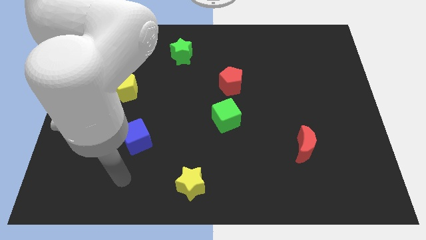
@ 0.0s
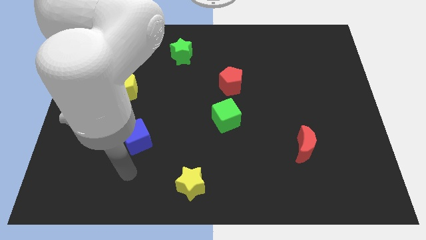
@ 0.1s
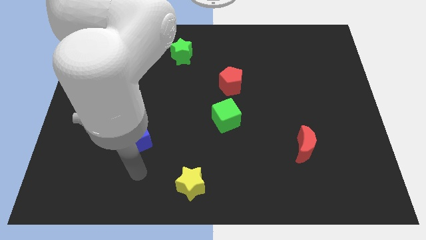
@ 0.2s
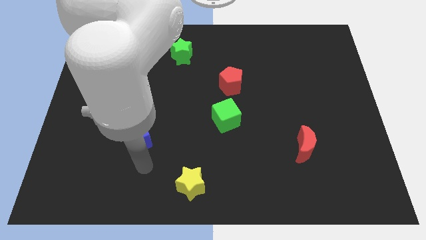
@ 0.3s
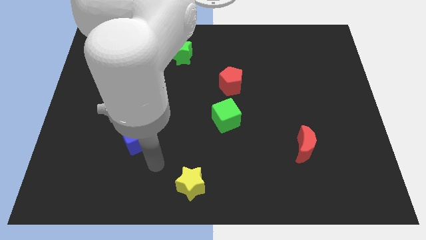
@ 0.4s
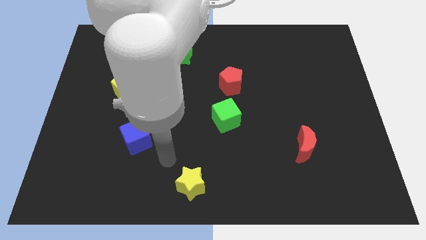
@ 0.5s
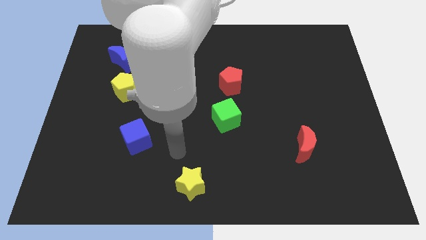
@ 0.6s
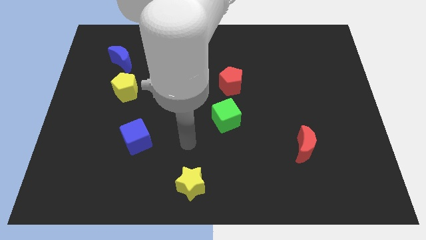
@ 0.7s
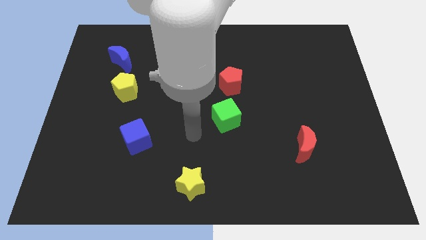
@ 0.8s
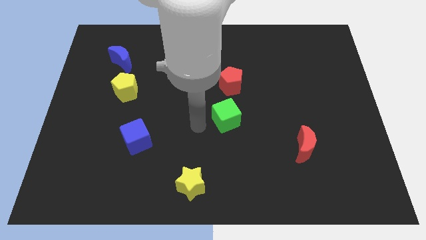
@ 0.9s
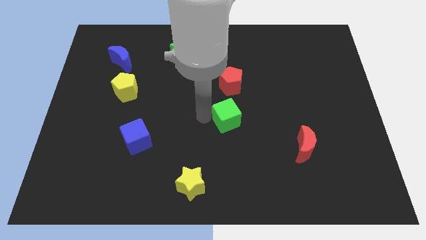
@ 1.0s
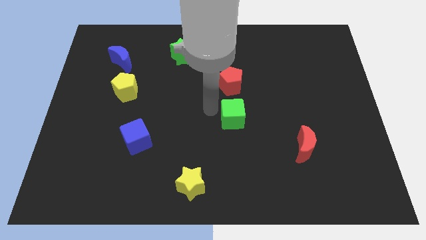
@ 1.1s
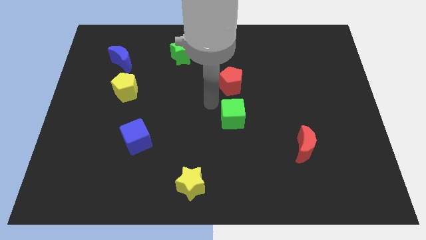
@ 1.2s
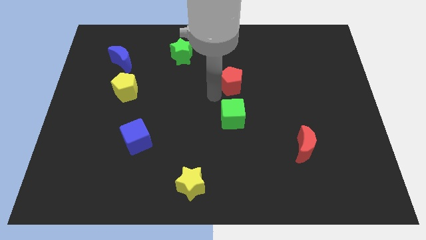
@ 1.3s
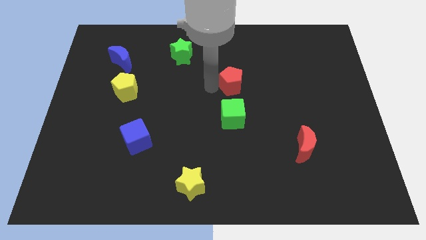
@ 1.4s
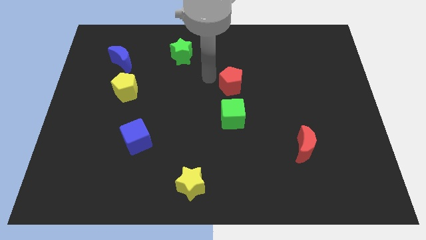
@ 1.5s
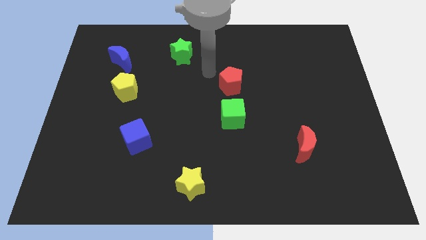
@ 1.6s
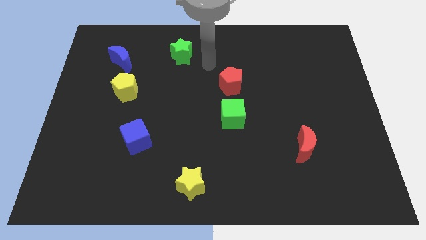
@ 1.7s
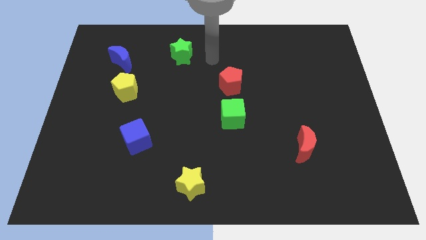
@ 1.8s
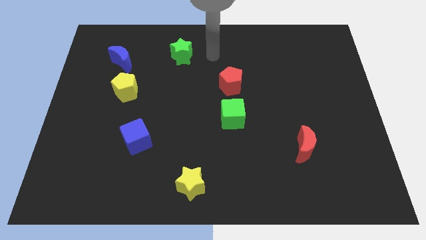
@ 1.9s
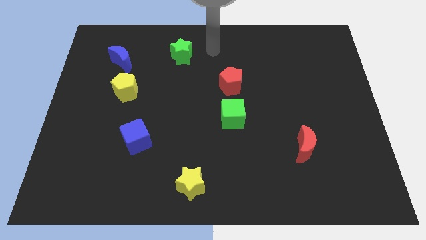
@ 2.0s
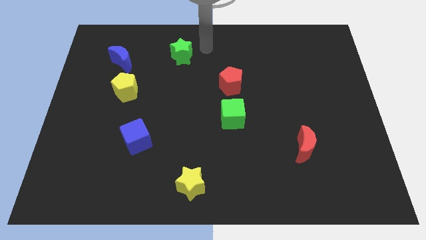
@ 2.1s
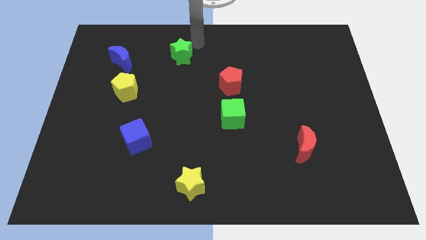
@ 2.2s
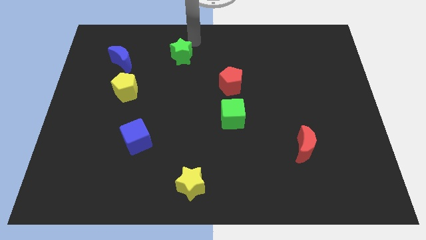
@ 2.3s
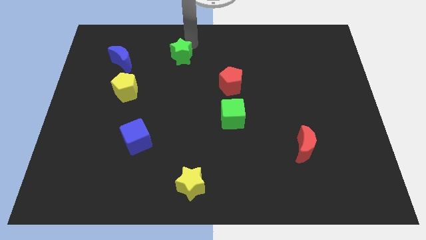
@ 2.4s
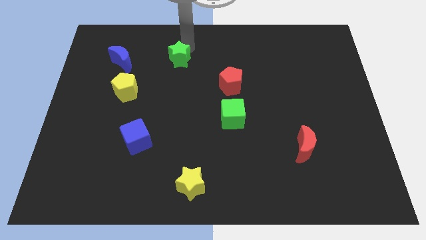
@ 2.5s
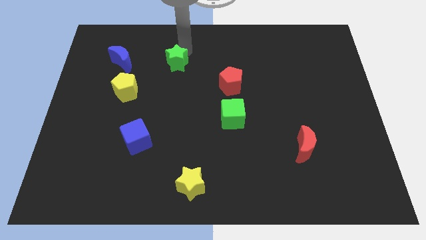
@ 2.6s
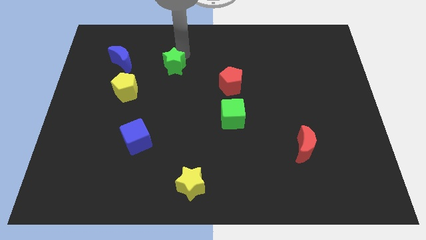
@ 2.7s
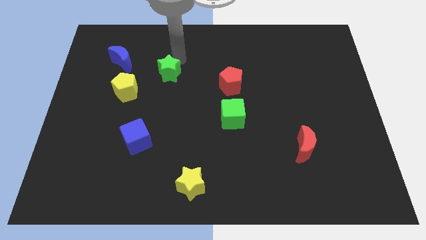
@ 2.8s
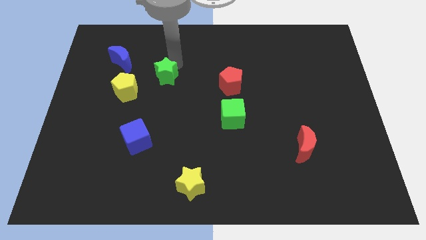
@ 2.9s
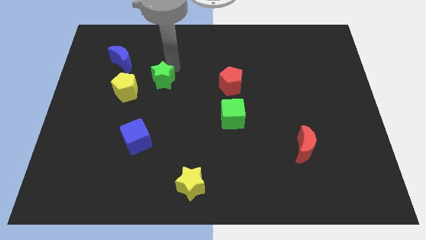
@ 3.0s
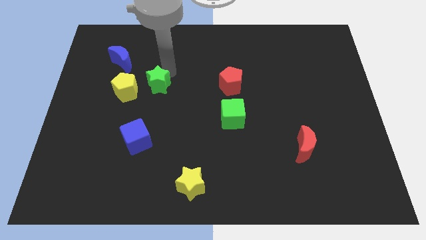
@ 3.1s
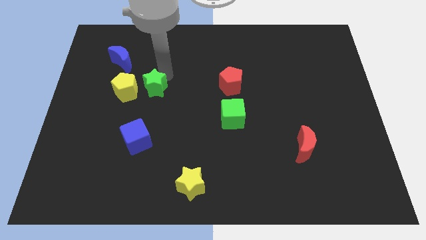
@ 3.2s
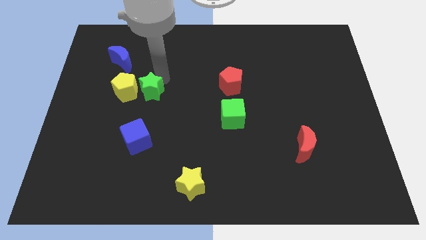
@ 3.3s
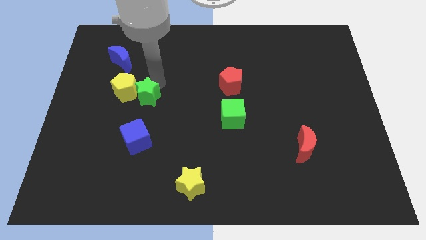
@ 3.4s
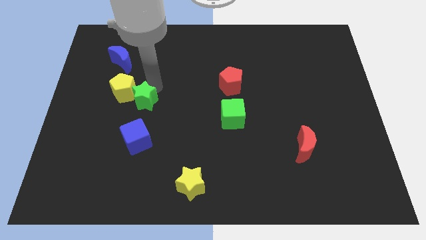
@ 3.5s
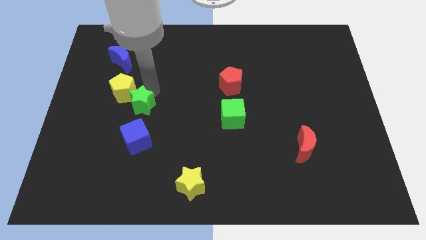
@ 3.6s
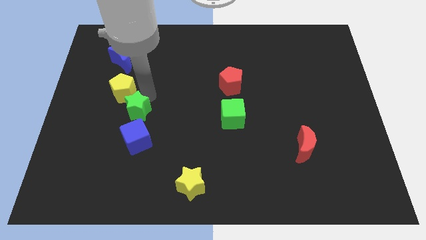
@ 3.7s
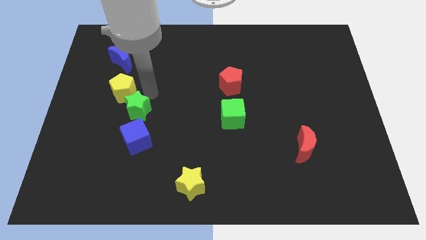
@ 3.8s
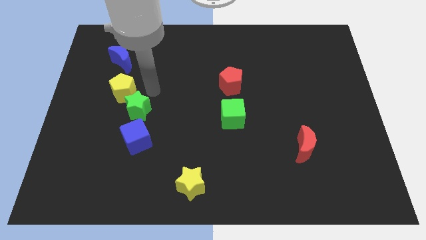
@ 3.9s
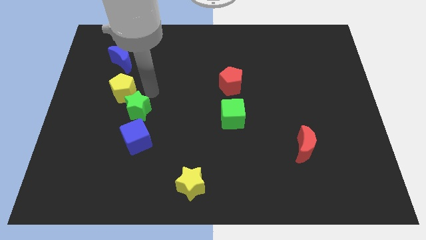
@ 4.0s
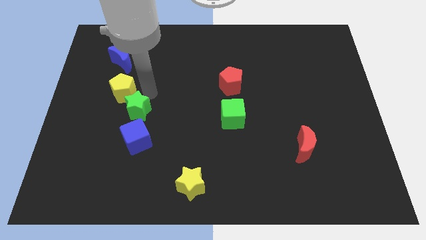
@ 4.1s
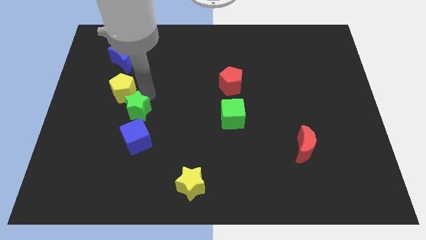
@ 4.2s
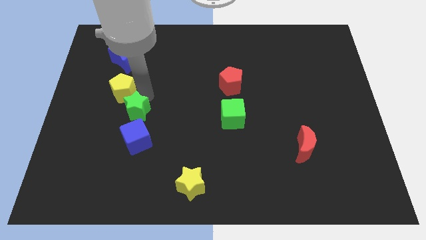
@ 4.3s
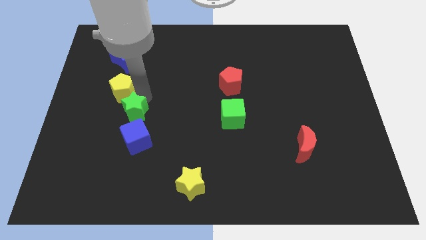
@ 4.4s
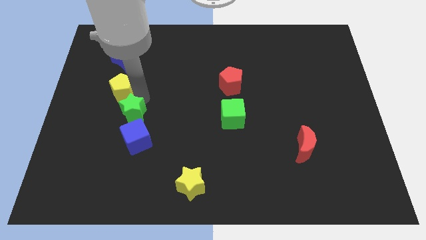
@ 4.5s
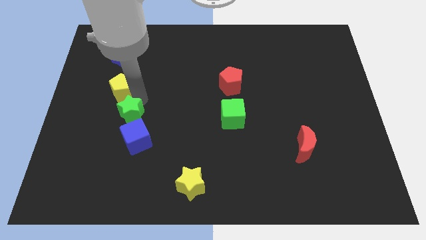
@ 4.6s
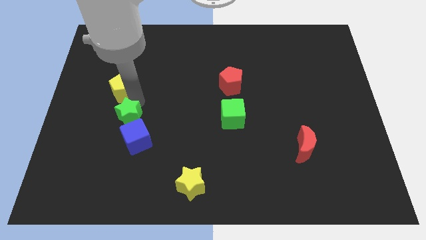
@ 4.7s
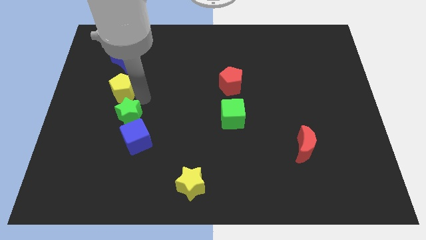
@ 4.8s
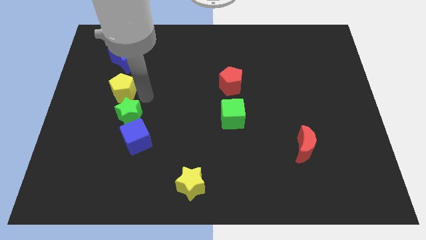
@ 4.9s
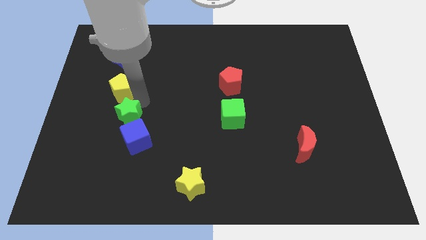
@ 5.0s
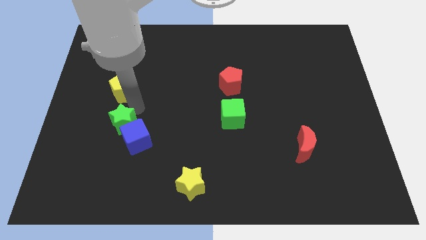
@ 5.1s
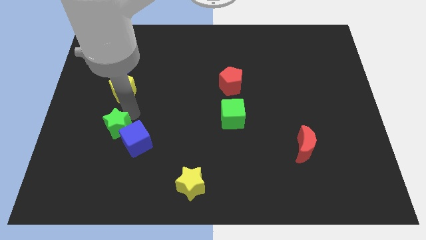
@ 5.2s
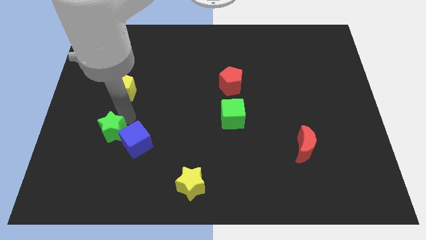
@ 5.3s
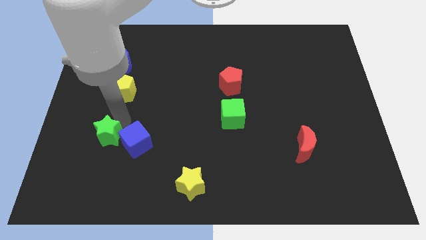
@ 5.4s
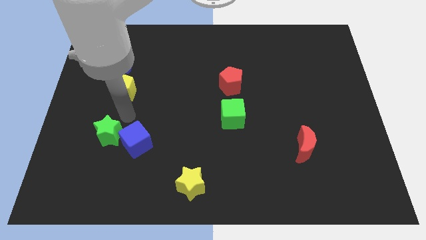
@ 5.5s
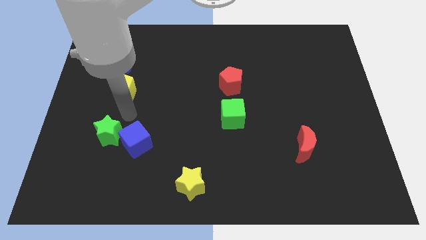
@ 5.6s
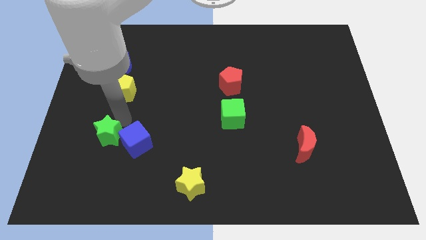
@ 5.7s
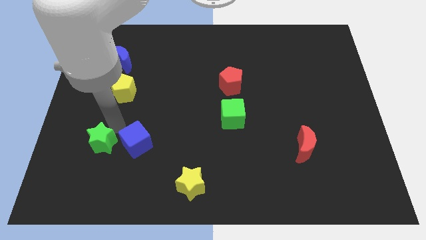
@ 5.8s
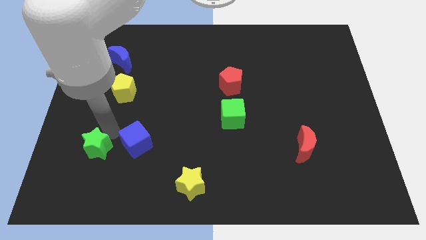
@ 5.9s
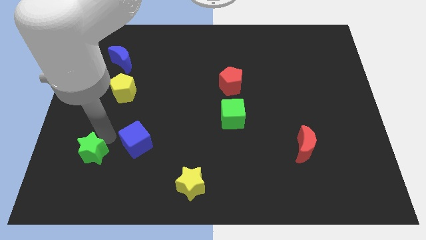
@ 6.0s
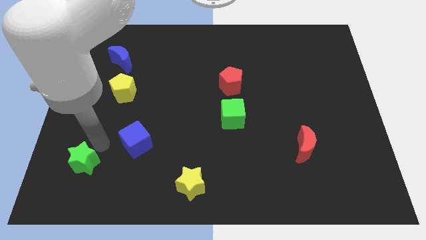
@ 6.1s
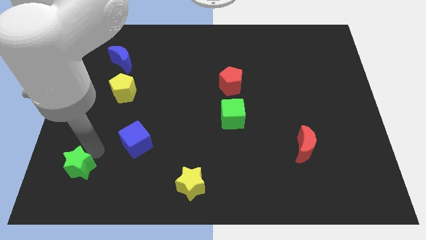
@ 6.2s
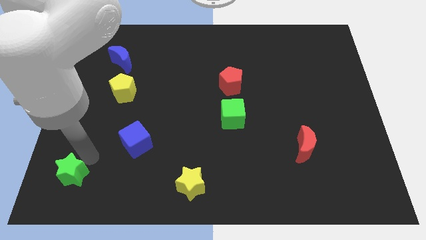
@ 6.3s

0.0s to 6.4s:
push the green star to the bottom left
